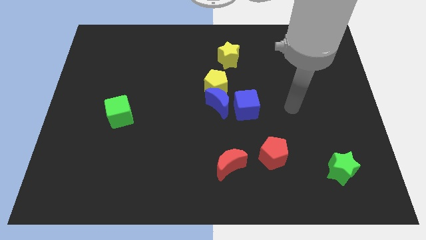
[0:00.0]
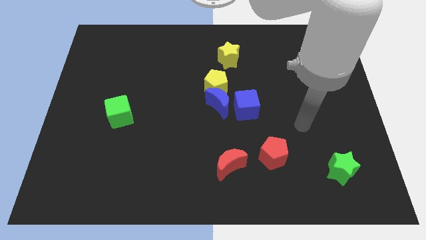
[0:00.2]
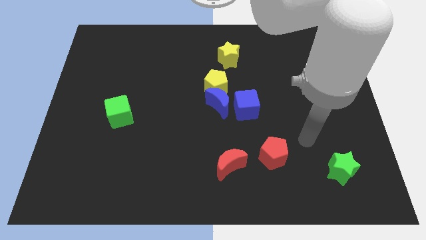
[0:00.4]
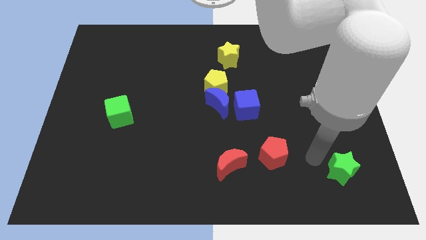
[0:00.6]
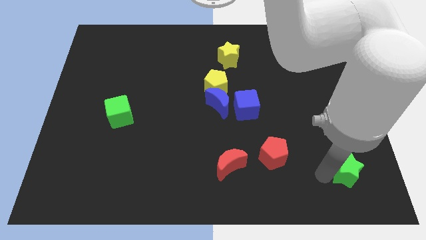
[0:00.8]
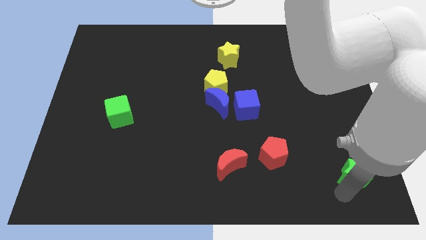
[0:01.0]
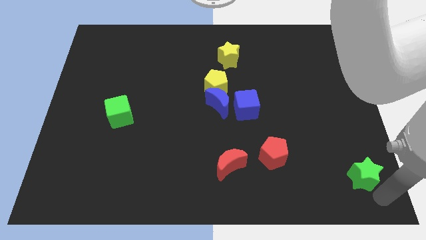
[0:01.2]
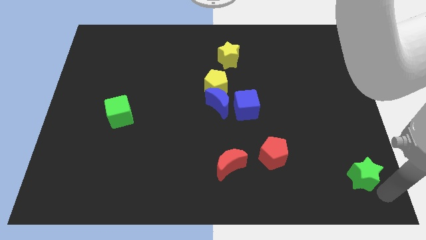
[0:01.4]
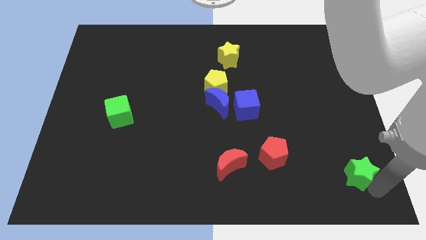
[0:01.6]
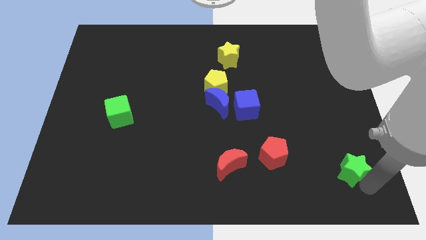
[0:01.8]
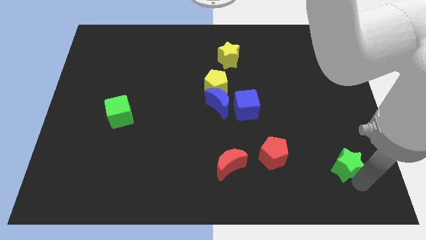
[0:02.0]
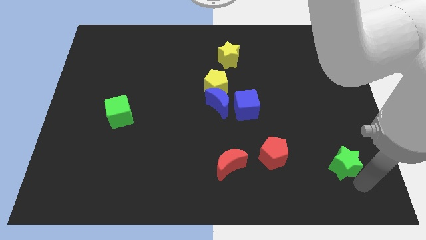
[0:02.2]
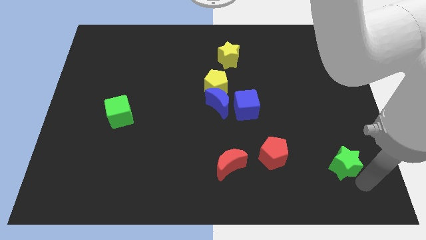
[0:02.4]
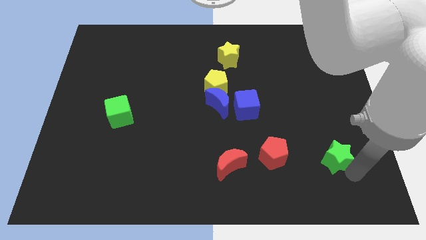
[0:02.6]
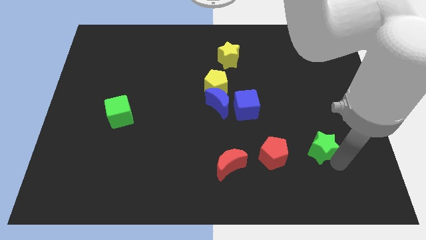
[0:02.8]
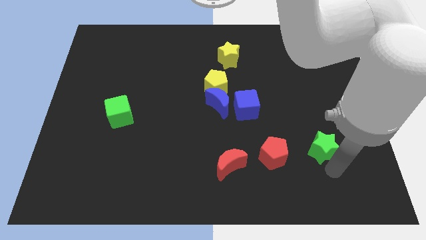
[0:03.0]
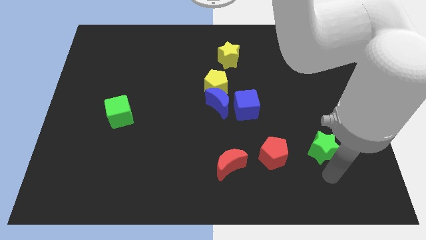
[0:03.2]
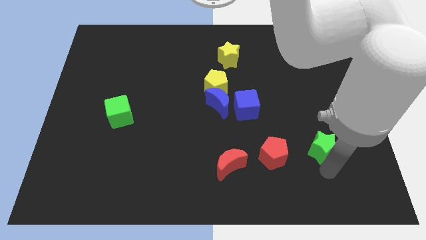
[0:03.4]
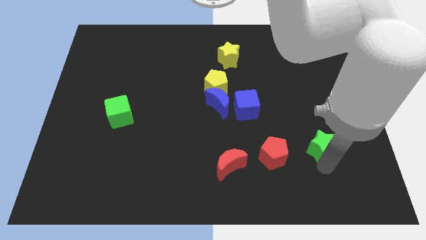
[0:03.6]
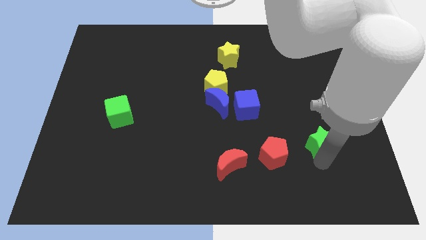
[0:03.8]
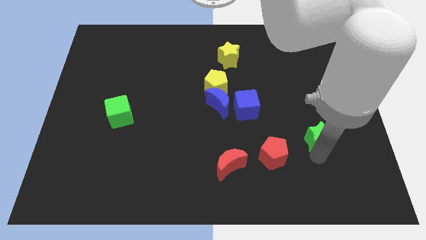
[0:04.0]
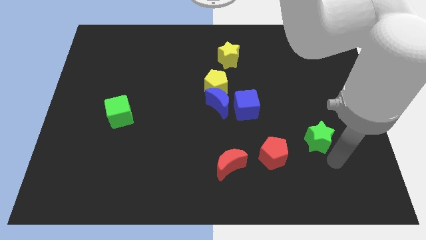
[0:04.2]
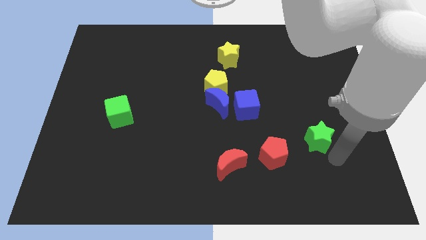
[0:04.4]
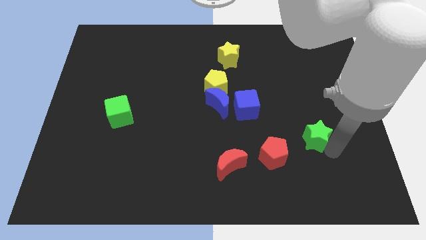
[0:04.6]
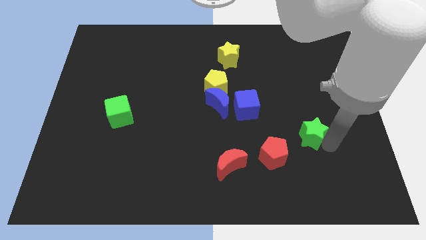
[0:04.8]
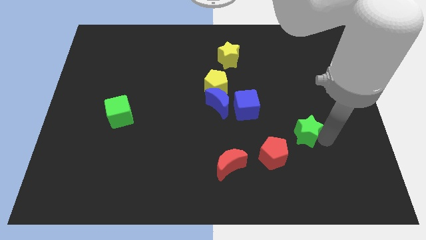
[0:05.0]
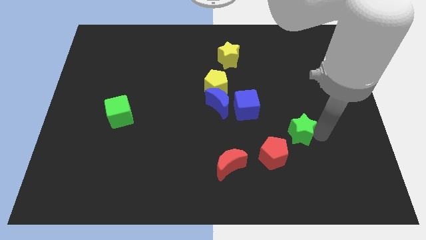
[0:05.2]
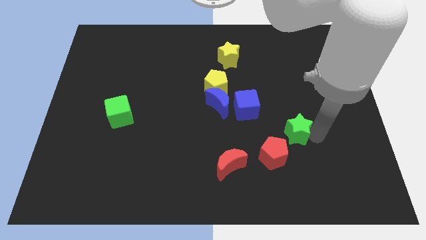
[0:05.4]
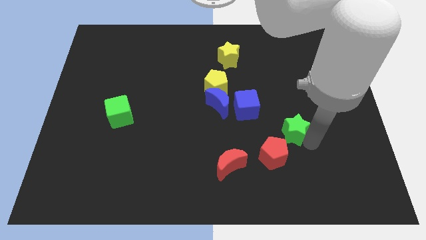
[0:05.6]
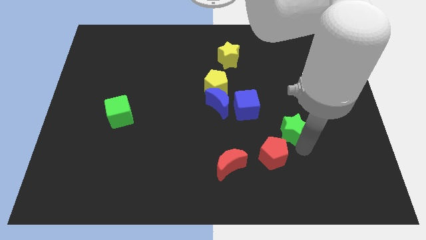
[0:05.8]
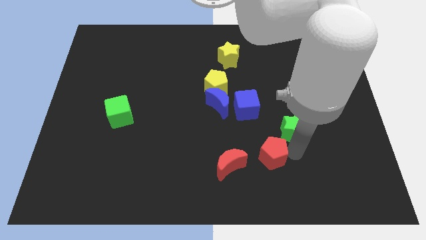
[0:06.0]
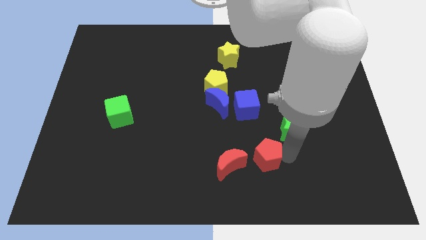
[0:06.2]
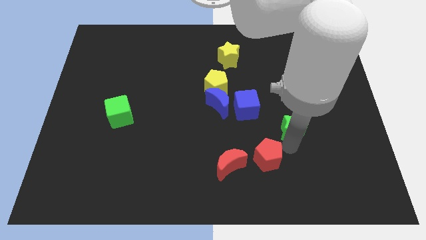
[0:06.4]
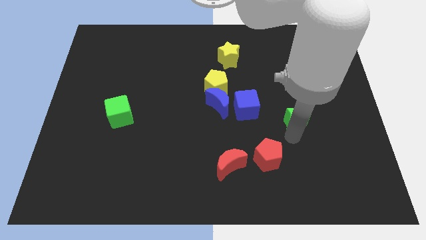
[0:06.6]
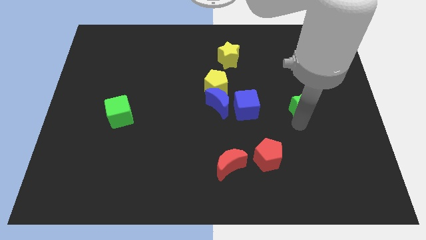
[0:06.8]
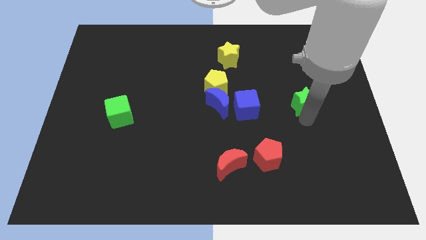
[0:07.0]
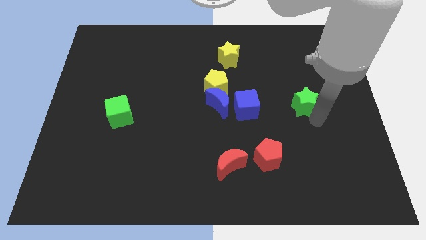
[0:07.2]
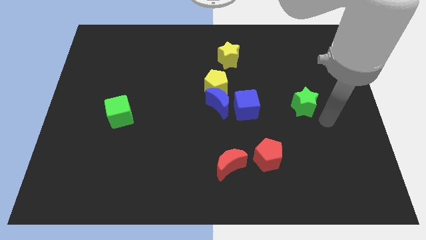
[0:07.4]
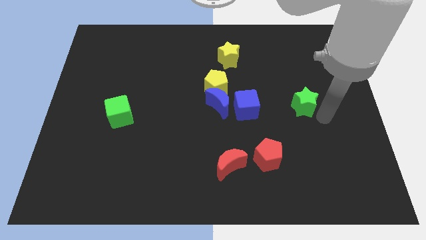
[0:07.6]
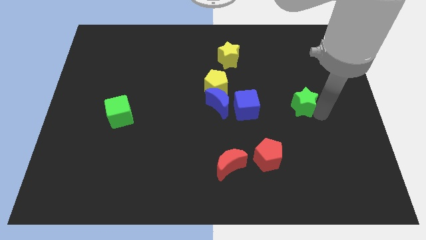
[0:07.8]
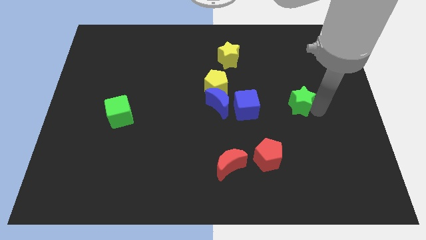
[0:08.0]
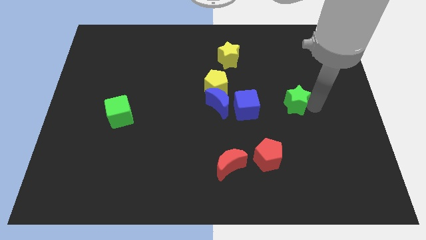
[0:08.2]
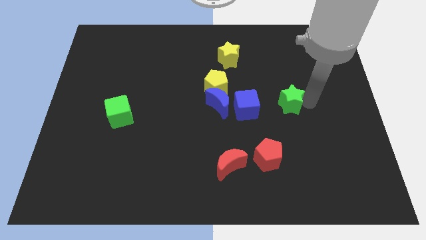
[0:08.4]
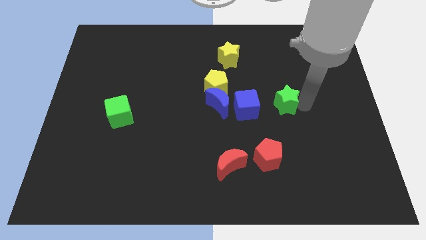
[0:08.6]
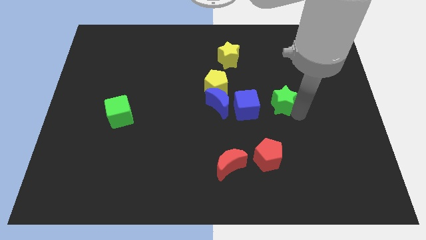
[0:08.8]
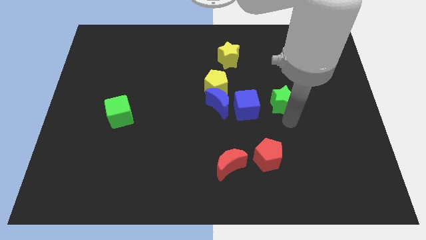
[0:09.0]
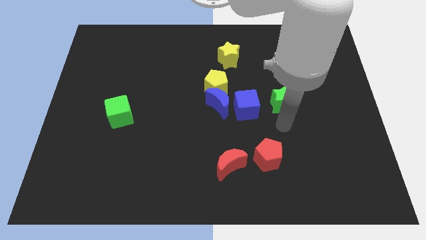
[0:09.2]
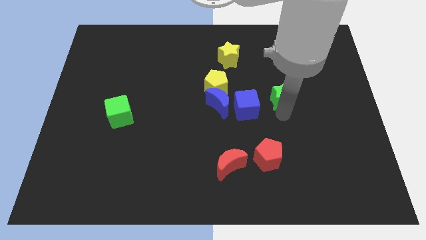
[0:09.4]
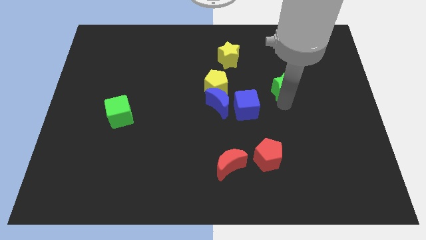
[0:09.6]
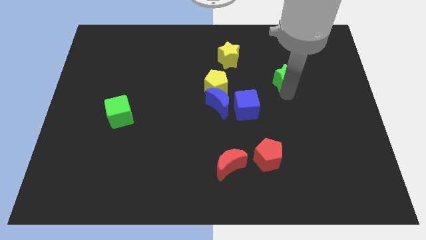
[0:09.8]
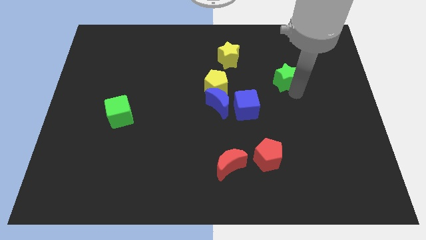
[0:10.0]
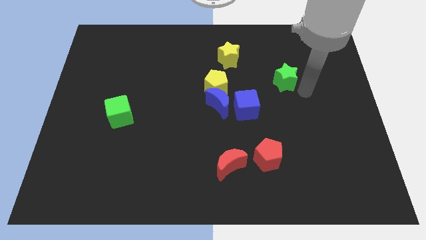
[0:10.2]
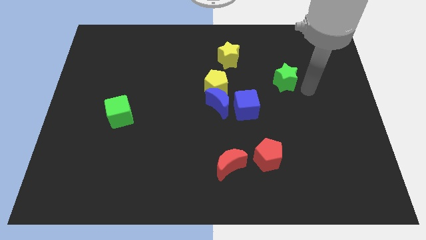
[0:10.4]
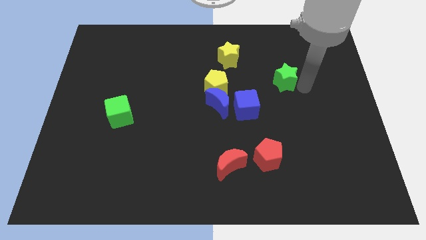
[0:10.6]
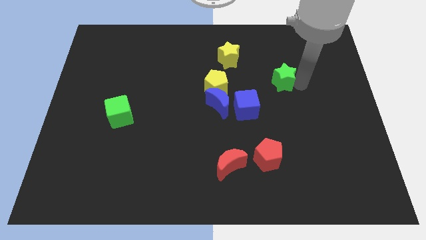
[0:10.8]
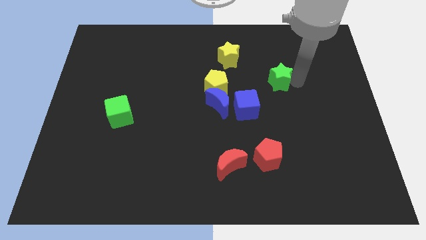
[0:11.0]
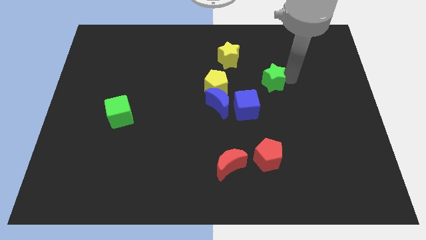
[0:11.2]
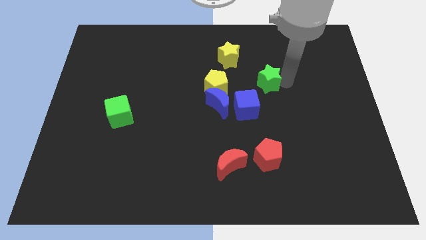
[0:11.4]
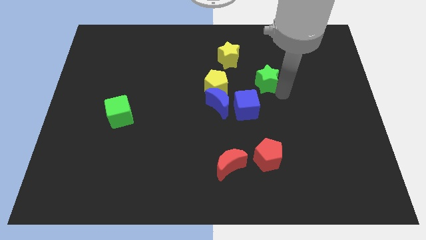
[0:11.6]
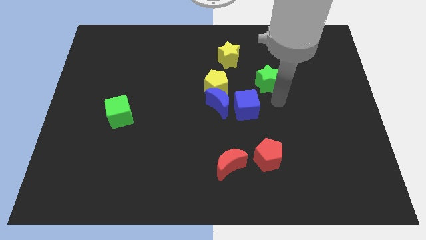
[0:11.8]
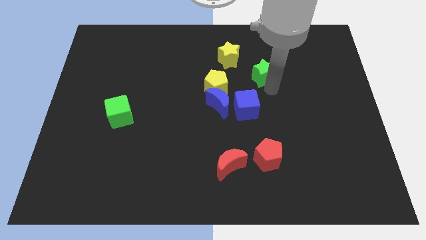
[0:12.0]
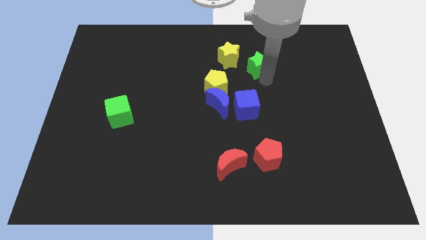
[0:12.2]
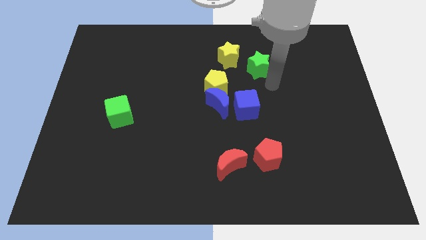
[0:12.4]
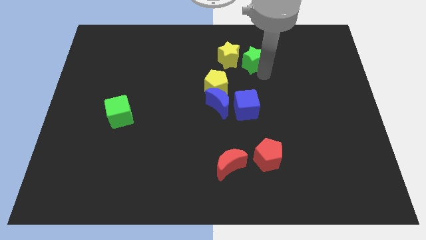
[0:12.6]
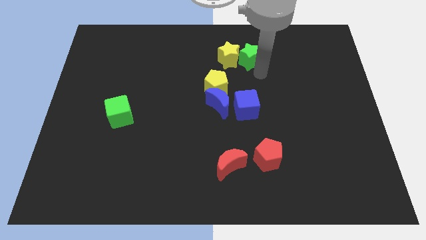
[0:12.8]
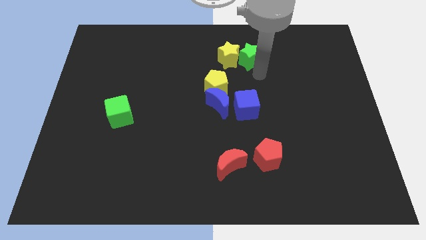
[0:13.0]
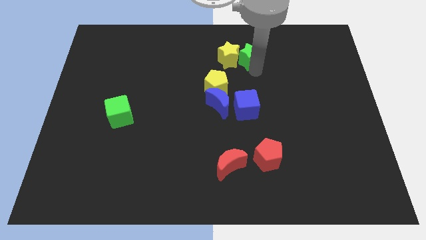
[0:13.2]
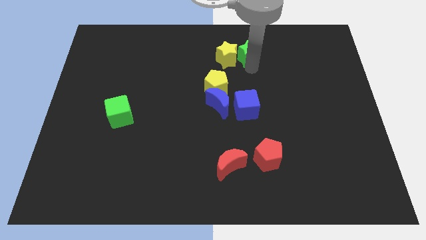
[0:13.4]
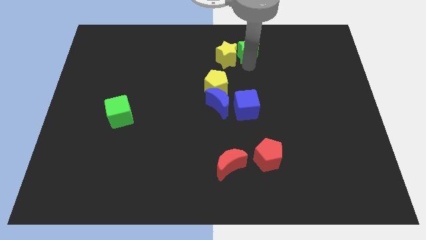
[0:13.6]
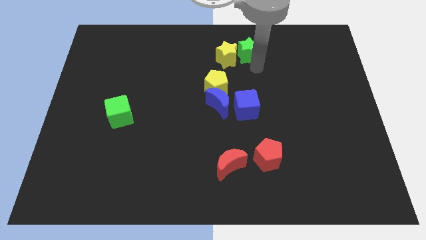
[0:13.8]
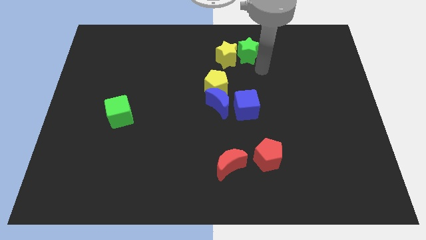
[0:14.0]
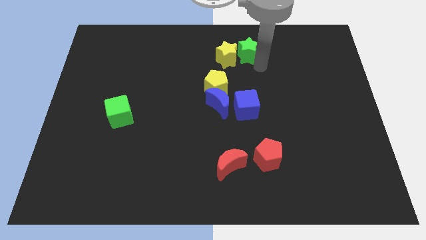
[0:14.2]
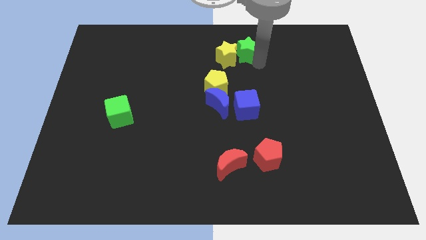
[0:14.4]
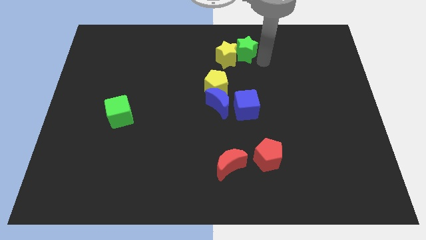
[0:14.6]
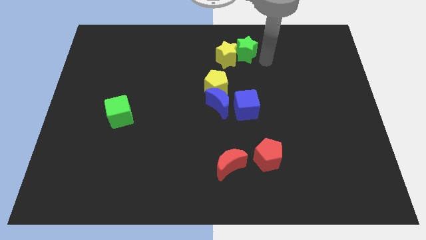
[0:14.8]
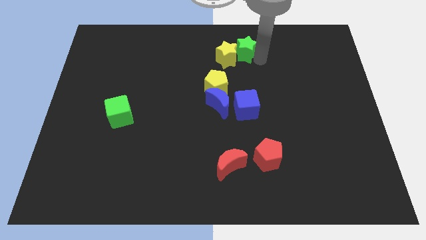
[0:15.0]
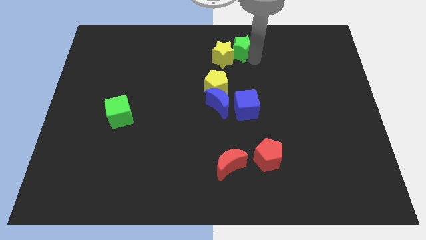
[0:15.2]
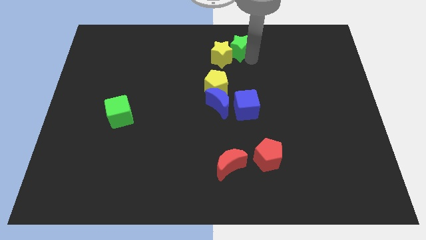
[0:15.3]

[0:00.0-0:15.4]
move the green star to the top

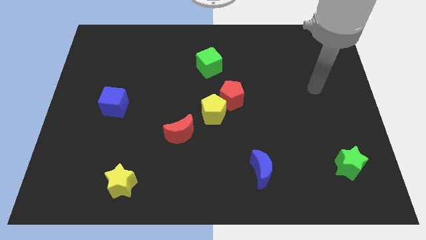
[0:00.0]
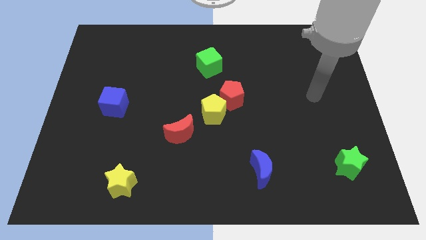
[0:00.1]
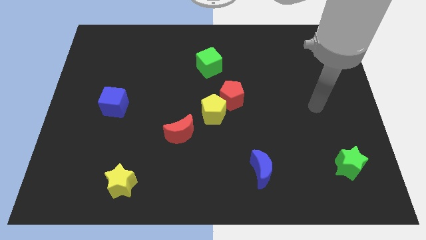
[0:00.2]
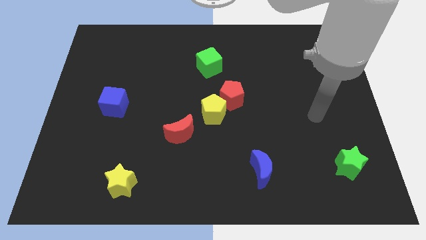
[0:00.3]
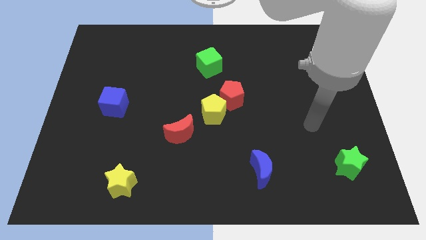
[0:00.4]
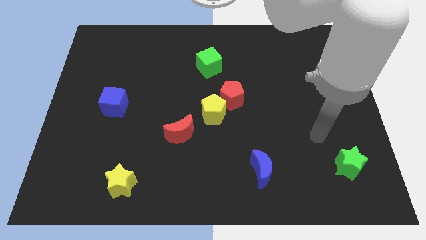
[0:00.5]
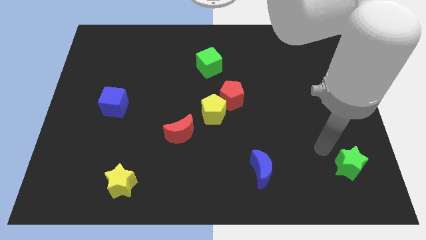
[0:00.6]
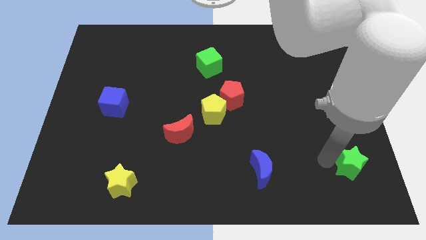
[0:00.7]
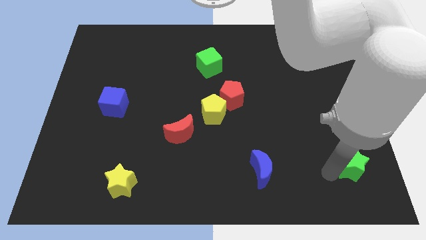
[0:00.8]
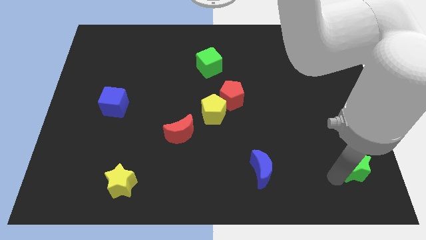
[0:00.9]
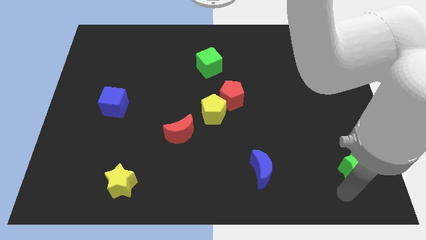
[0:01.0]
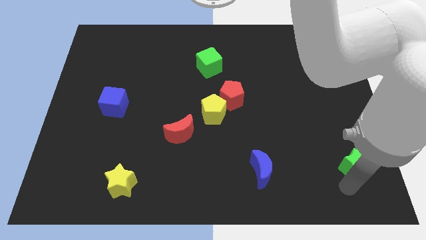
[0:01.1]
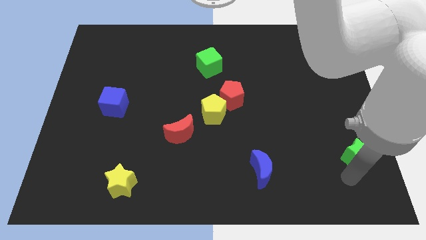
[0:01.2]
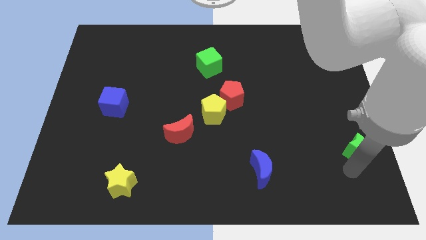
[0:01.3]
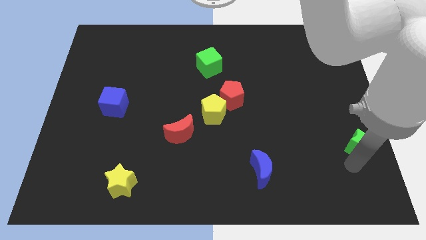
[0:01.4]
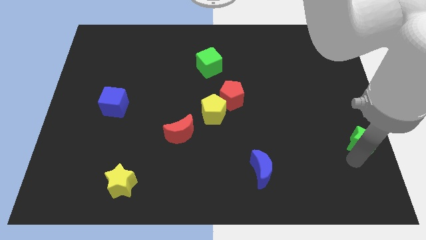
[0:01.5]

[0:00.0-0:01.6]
put the green star to the right side of the board
